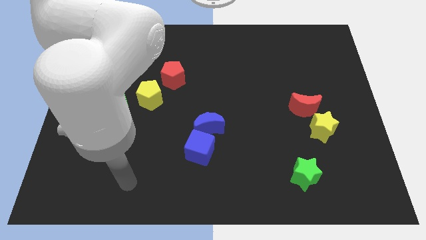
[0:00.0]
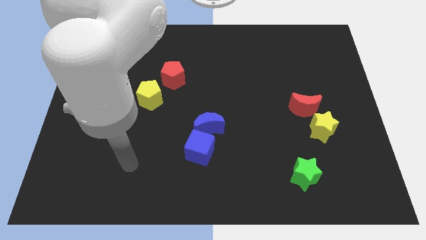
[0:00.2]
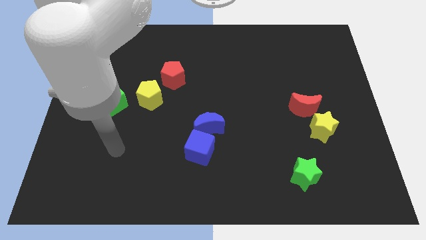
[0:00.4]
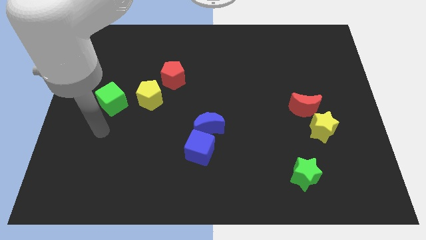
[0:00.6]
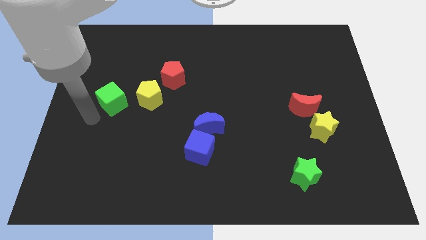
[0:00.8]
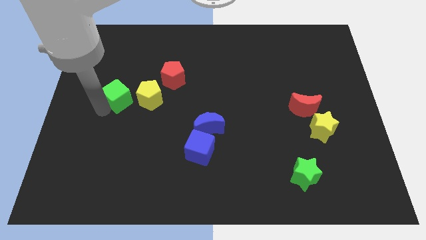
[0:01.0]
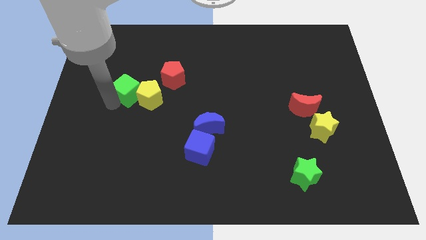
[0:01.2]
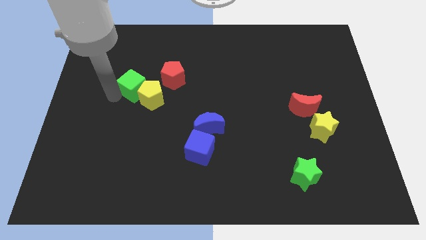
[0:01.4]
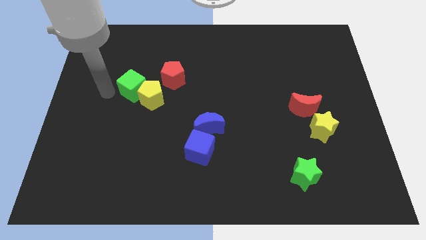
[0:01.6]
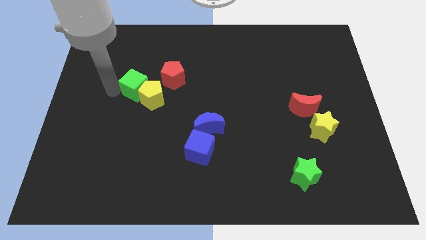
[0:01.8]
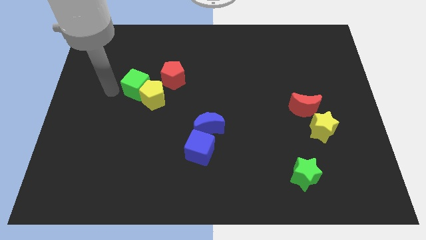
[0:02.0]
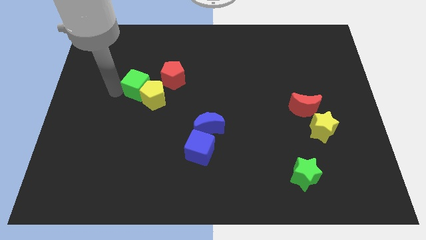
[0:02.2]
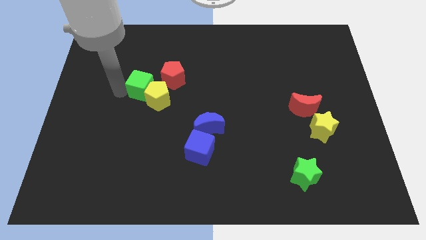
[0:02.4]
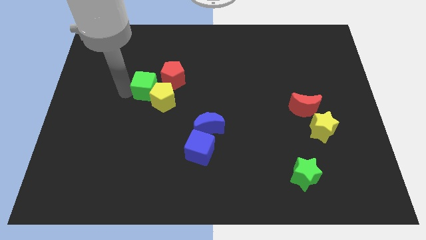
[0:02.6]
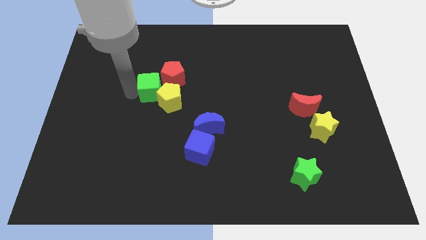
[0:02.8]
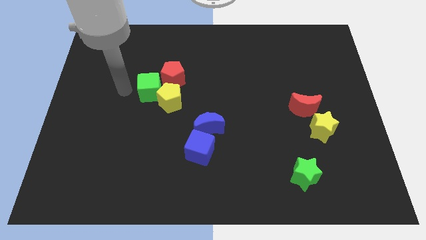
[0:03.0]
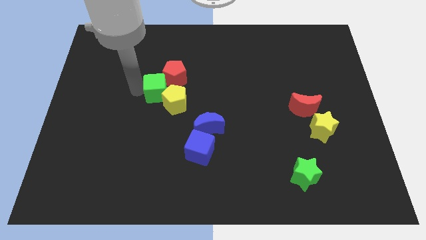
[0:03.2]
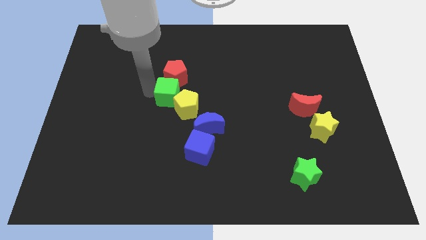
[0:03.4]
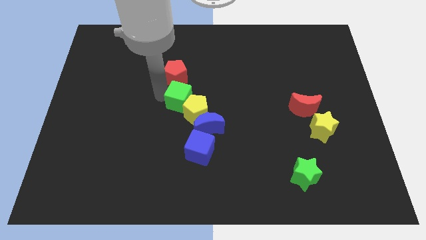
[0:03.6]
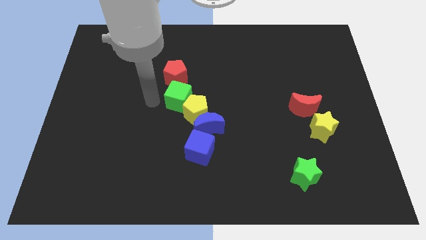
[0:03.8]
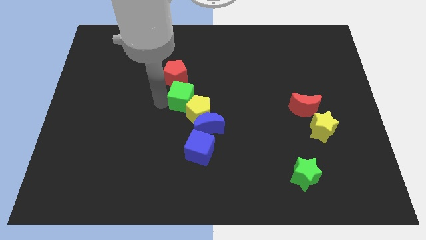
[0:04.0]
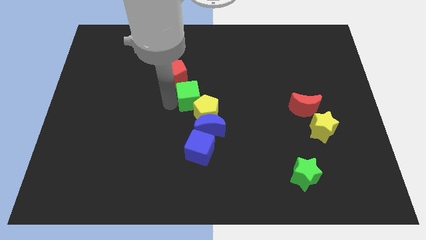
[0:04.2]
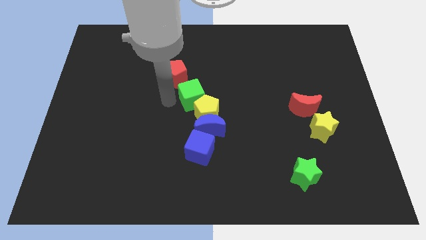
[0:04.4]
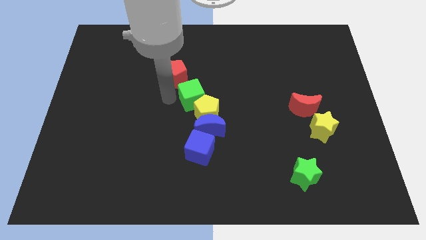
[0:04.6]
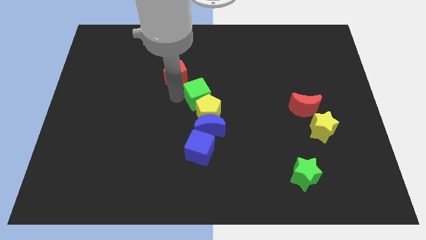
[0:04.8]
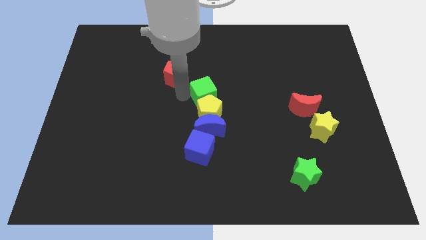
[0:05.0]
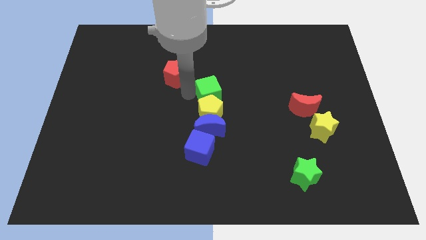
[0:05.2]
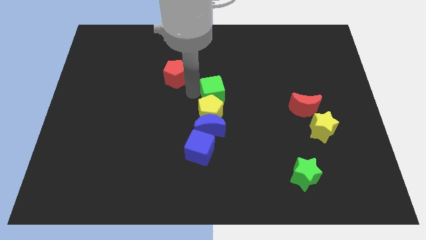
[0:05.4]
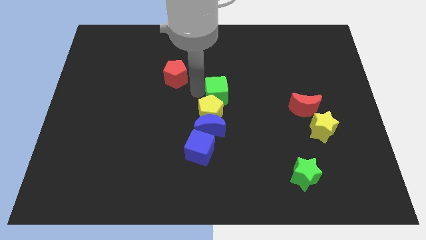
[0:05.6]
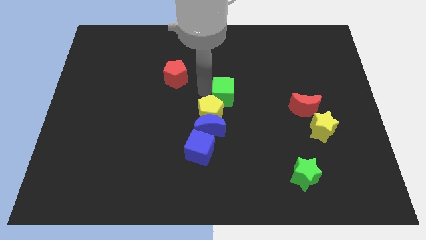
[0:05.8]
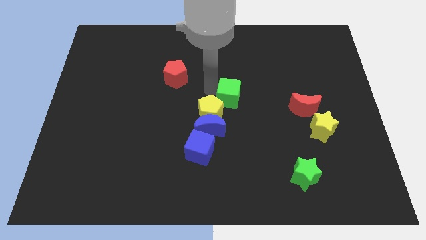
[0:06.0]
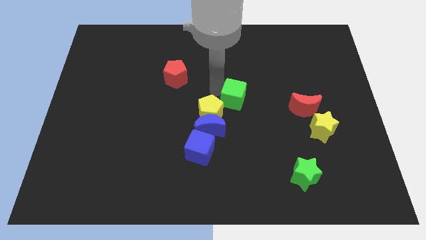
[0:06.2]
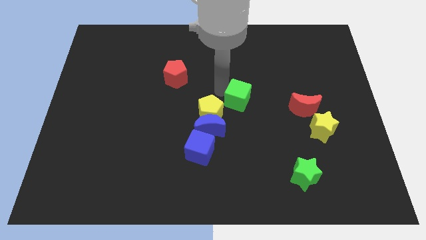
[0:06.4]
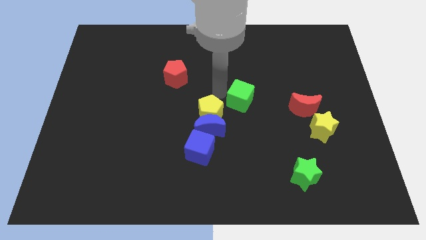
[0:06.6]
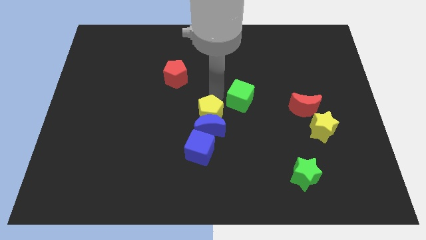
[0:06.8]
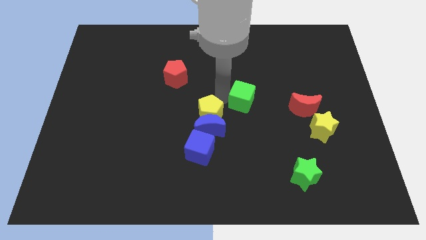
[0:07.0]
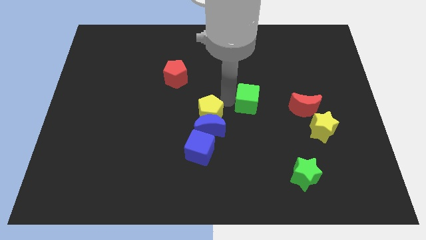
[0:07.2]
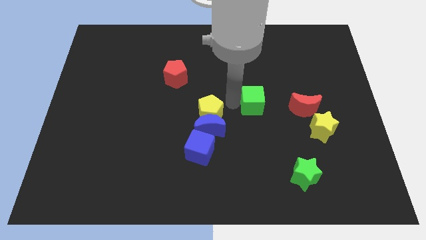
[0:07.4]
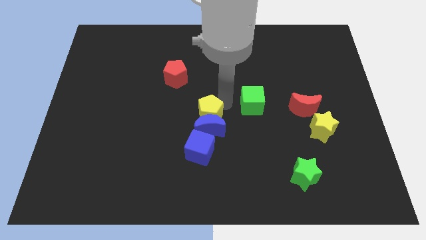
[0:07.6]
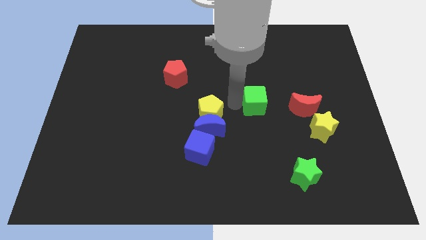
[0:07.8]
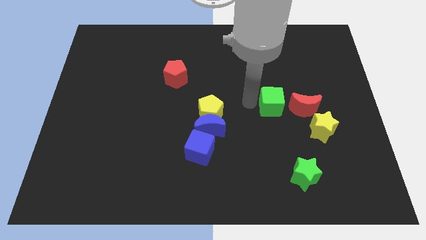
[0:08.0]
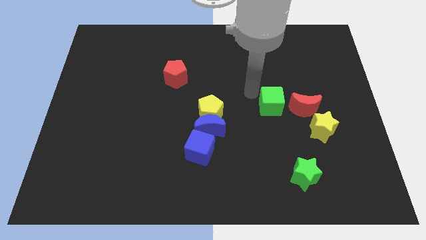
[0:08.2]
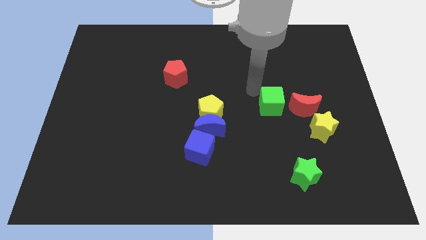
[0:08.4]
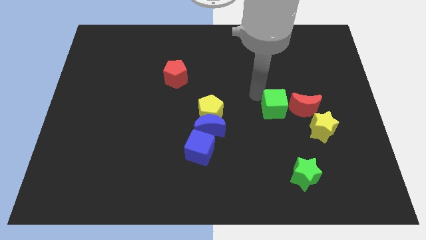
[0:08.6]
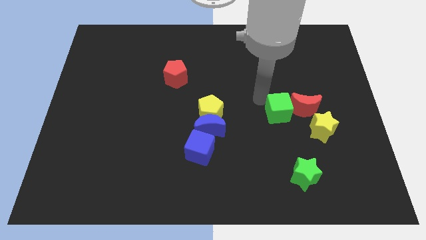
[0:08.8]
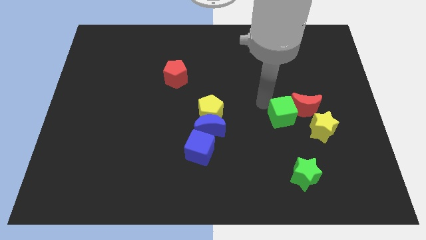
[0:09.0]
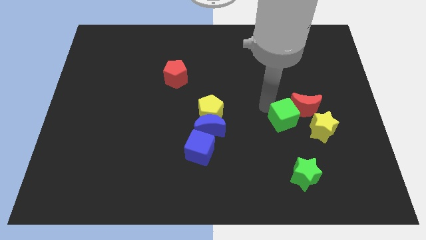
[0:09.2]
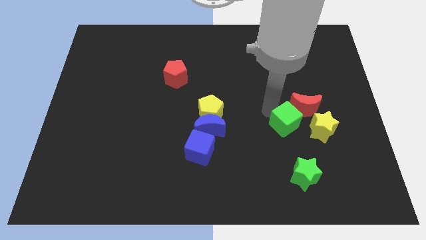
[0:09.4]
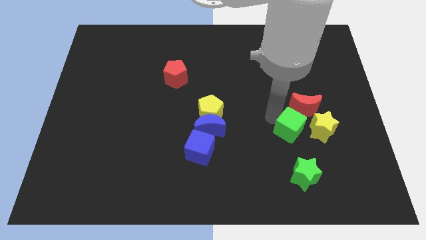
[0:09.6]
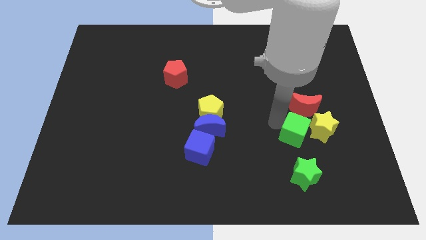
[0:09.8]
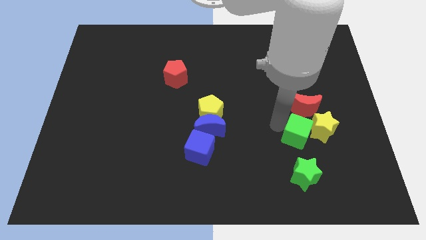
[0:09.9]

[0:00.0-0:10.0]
slide the green cube close to the yellow star

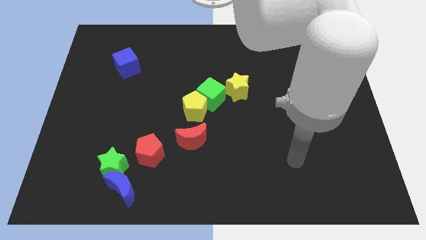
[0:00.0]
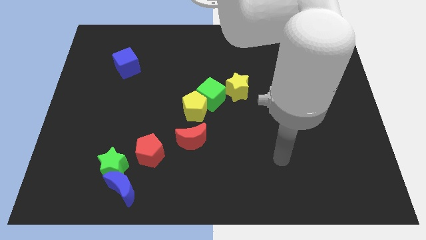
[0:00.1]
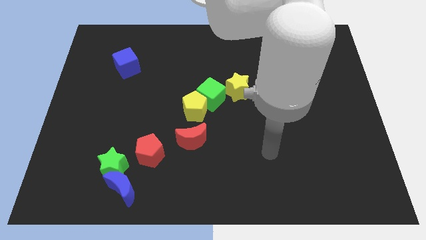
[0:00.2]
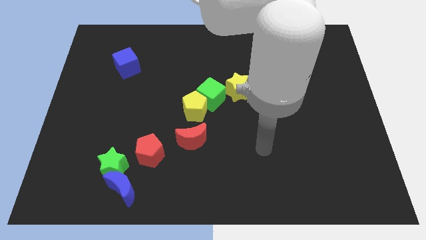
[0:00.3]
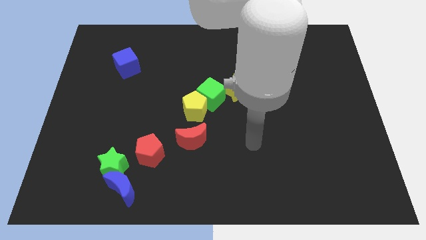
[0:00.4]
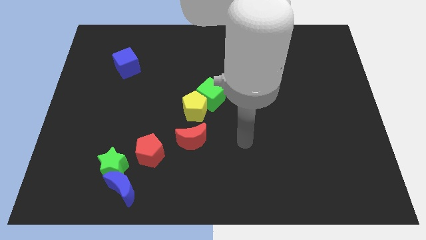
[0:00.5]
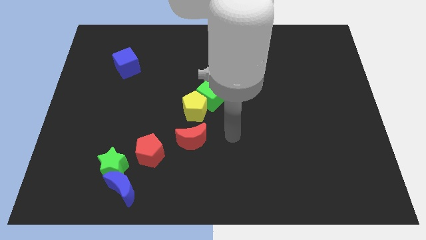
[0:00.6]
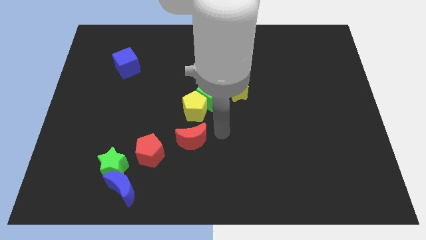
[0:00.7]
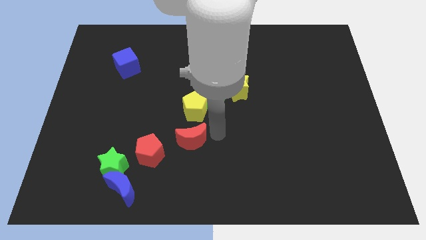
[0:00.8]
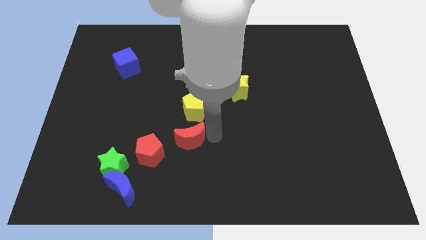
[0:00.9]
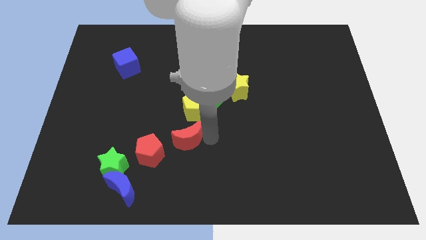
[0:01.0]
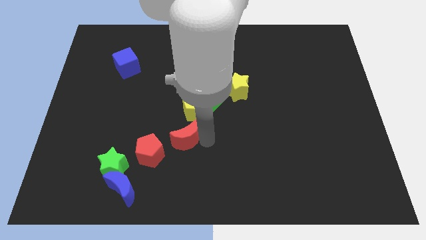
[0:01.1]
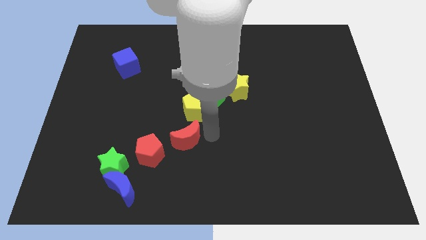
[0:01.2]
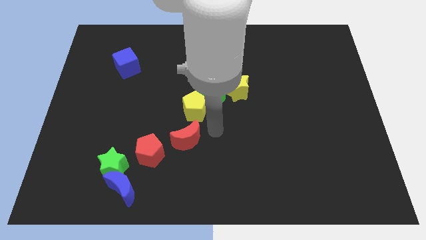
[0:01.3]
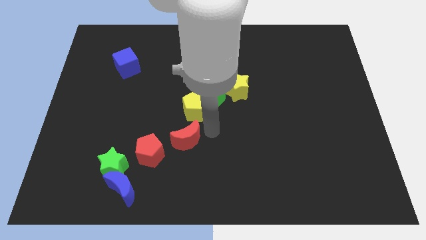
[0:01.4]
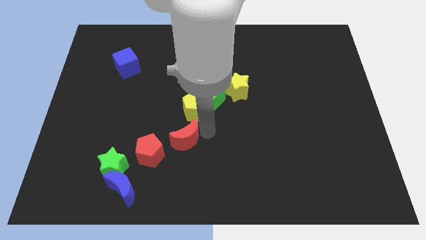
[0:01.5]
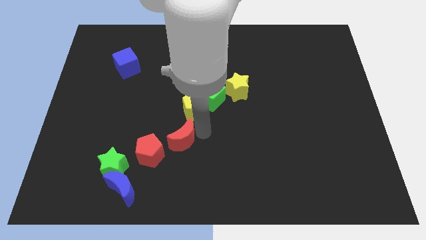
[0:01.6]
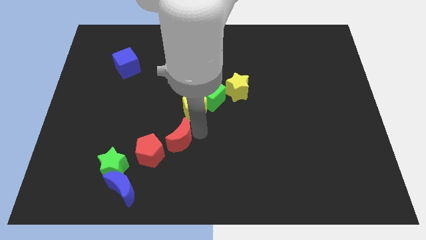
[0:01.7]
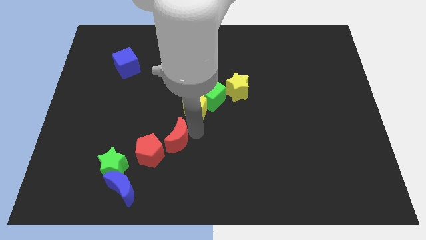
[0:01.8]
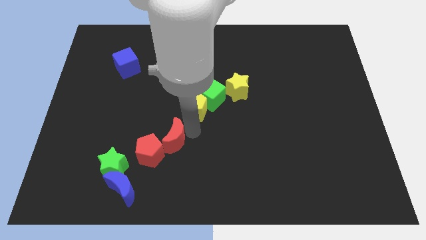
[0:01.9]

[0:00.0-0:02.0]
put the red moon towards the red pentagon

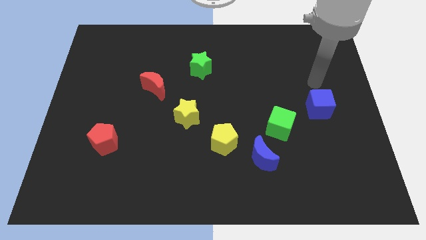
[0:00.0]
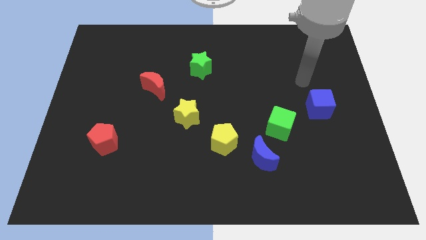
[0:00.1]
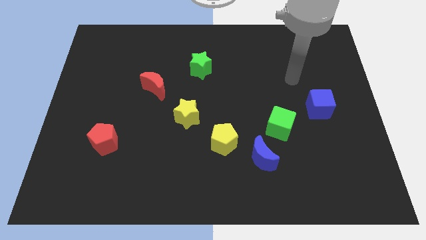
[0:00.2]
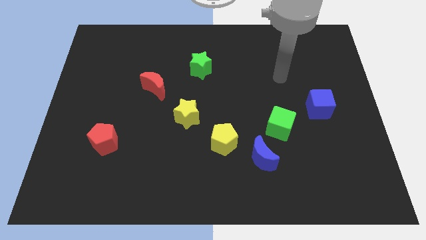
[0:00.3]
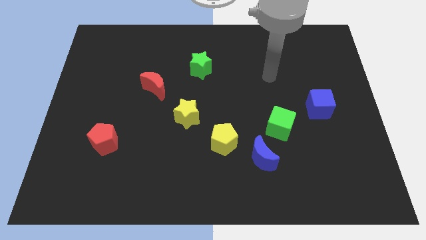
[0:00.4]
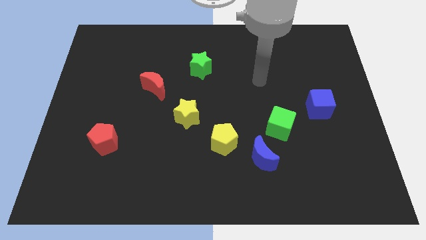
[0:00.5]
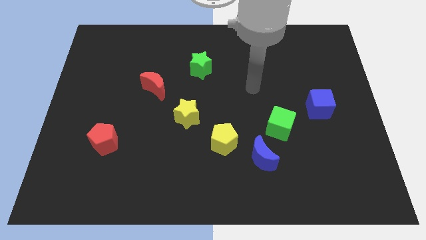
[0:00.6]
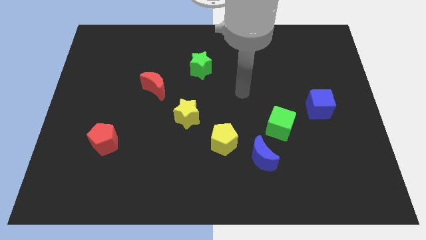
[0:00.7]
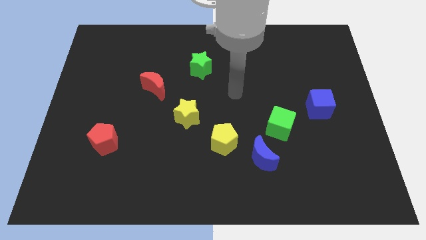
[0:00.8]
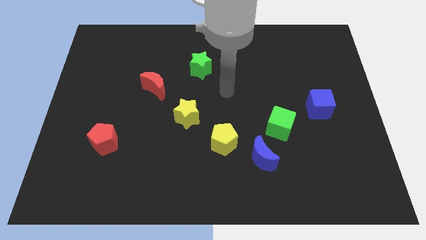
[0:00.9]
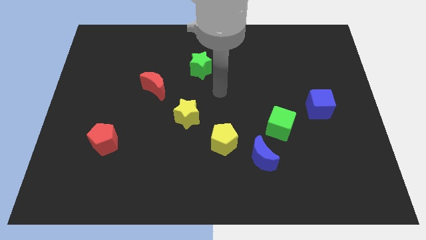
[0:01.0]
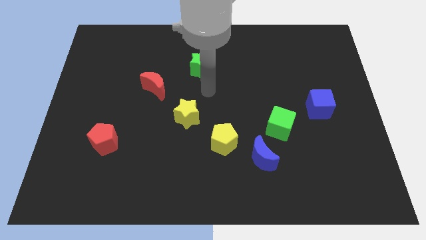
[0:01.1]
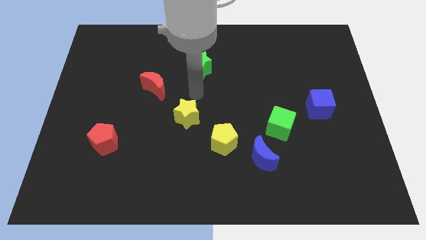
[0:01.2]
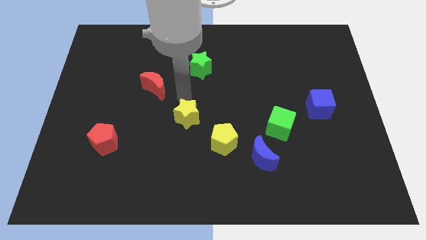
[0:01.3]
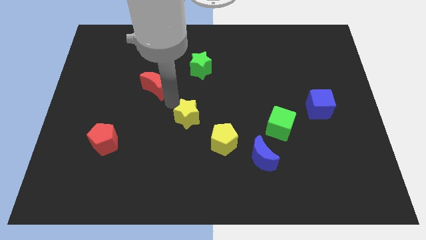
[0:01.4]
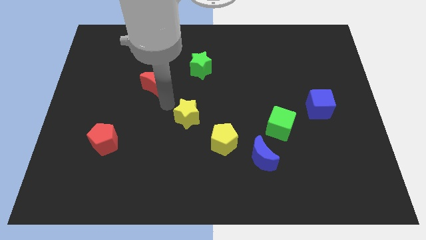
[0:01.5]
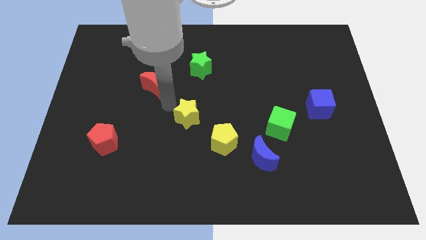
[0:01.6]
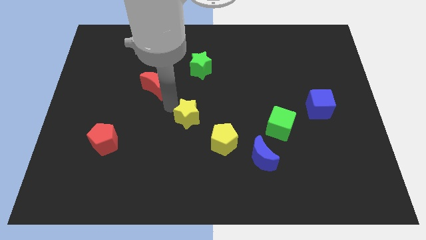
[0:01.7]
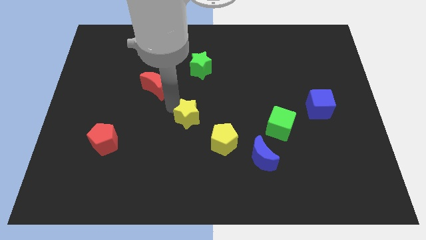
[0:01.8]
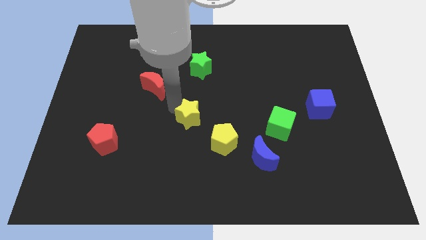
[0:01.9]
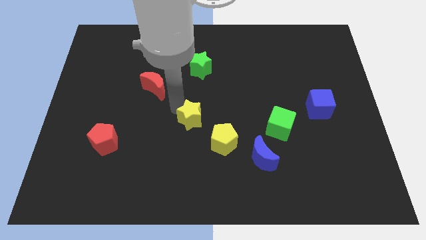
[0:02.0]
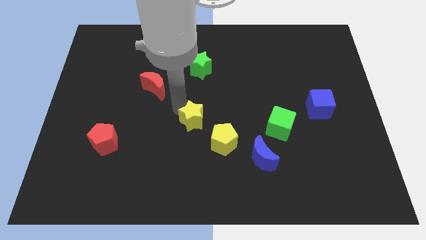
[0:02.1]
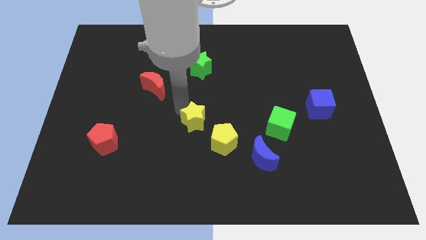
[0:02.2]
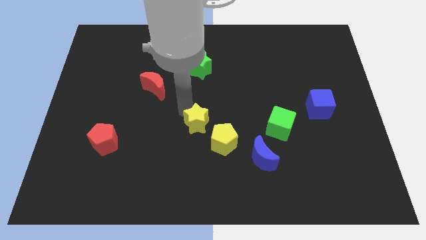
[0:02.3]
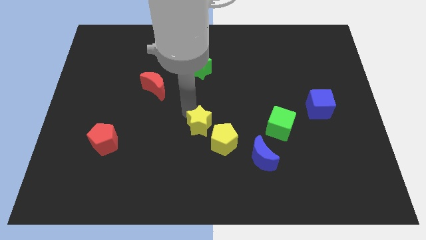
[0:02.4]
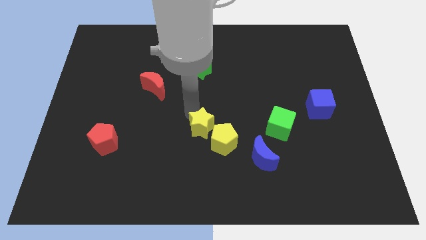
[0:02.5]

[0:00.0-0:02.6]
slide the yellow star towards the yellow pentagon
